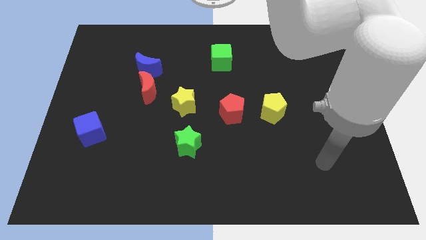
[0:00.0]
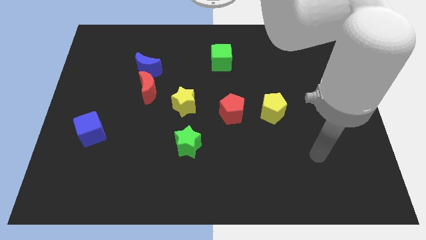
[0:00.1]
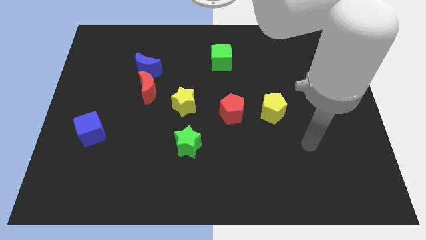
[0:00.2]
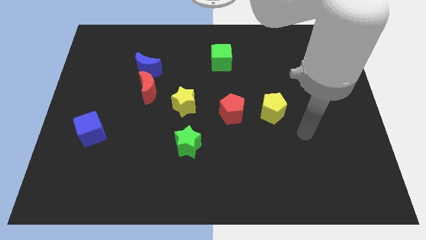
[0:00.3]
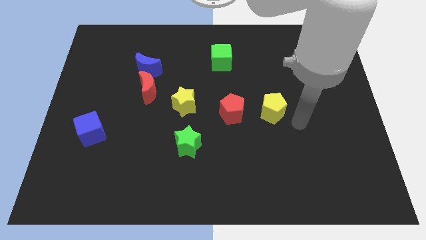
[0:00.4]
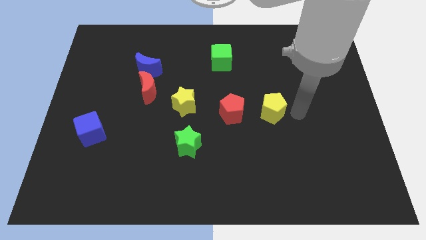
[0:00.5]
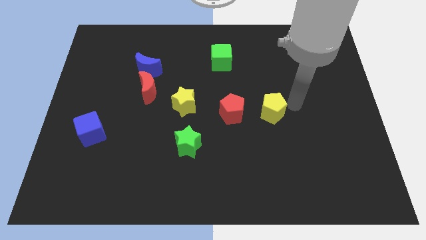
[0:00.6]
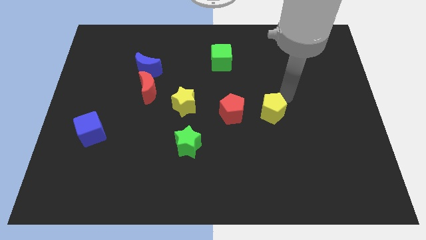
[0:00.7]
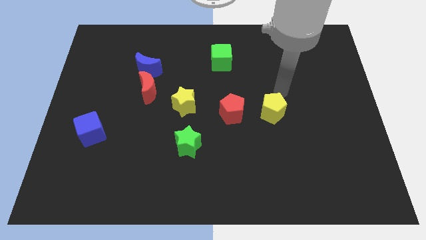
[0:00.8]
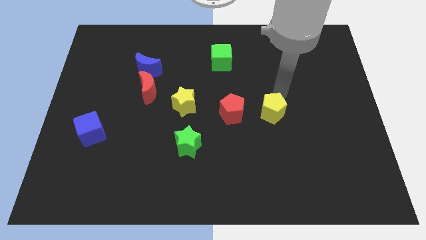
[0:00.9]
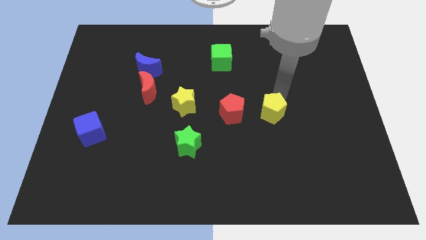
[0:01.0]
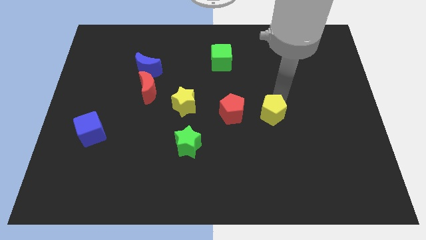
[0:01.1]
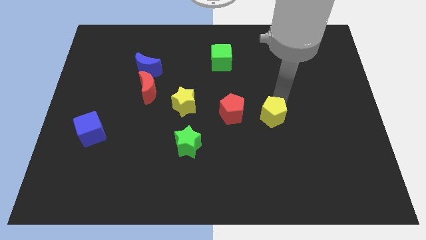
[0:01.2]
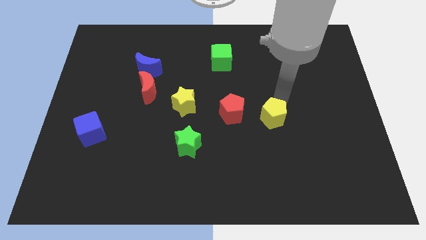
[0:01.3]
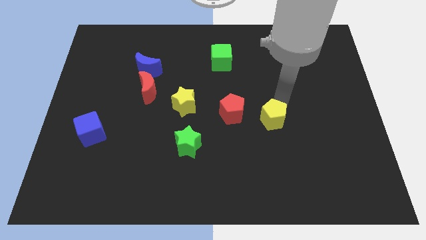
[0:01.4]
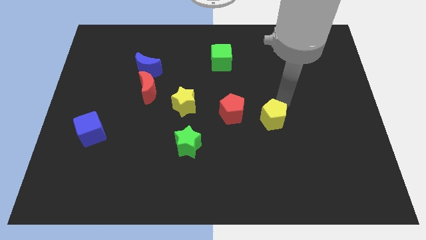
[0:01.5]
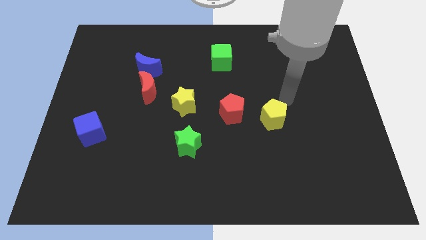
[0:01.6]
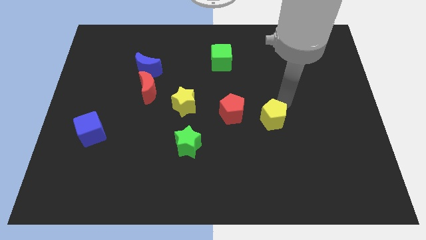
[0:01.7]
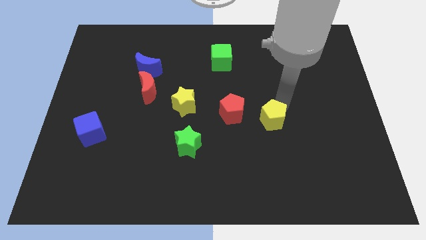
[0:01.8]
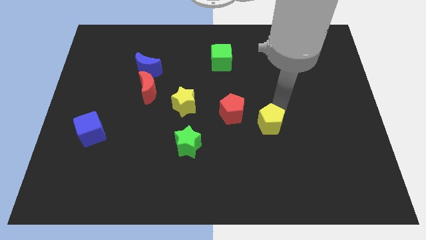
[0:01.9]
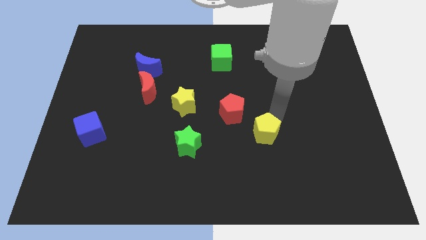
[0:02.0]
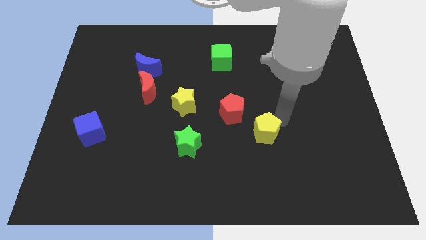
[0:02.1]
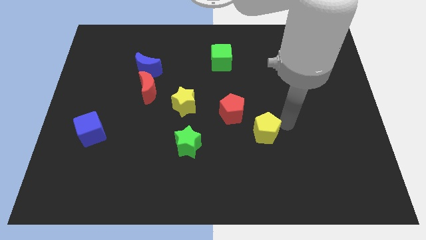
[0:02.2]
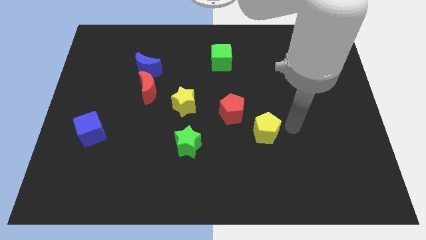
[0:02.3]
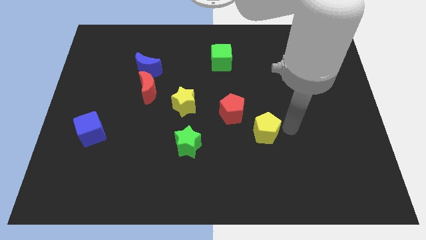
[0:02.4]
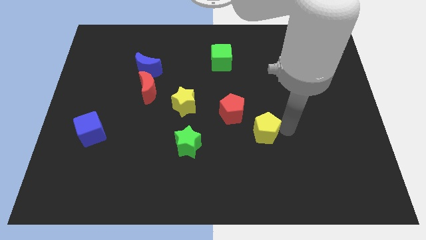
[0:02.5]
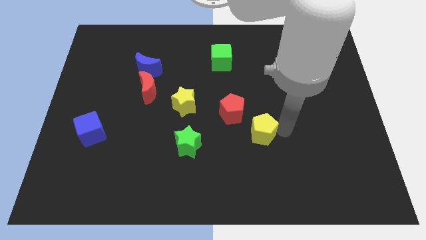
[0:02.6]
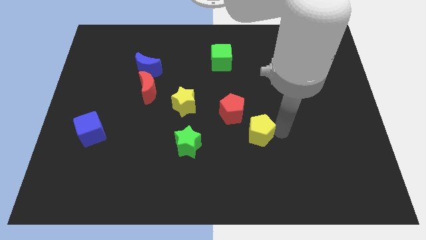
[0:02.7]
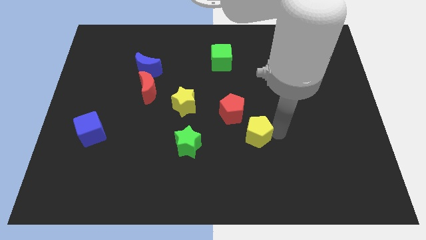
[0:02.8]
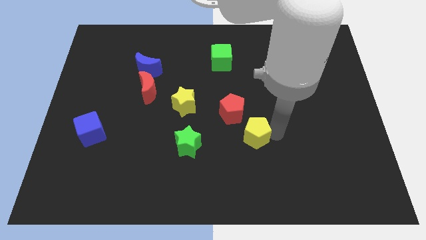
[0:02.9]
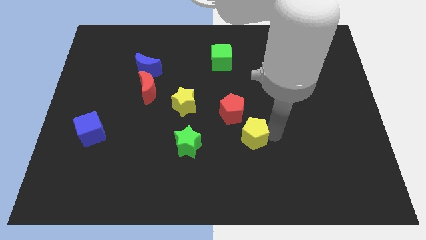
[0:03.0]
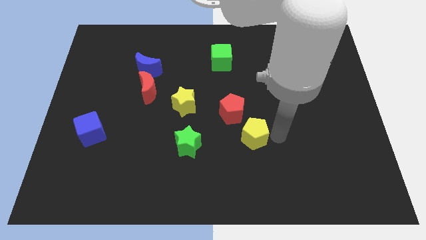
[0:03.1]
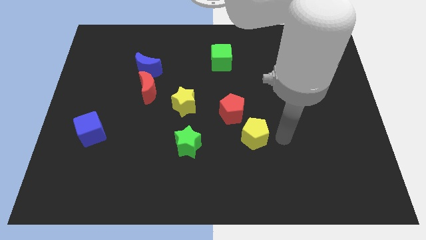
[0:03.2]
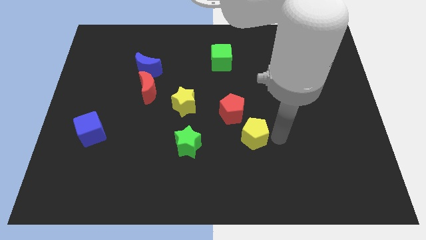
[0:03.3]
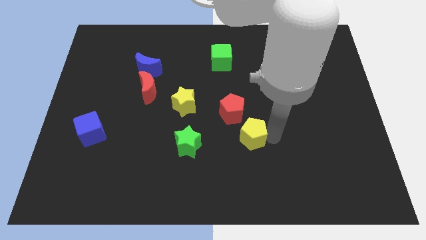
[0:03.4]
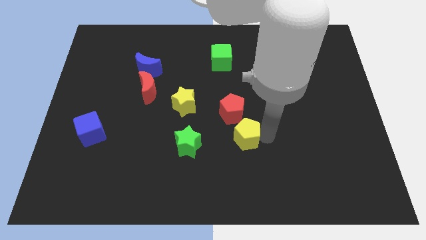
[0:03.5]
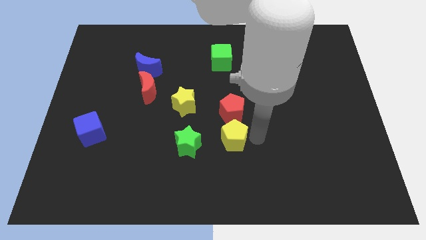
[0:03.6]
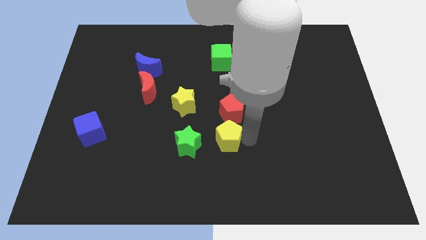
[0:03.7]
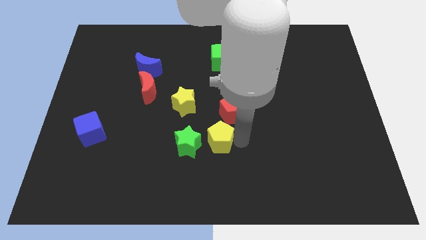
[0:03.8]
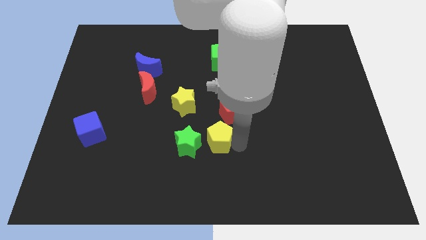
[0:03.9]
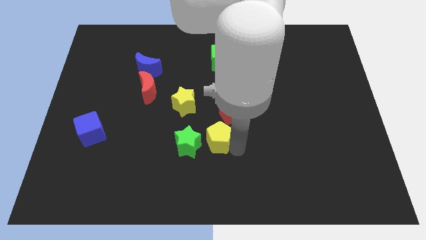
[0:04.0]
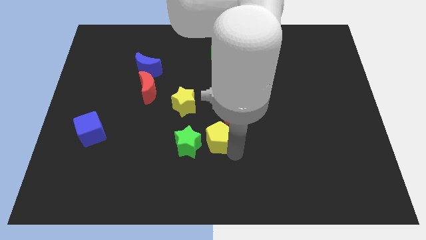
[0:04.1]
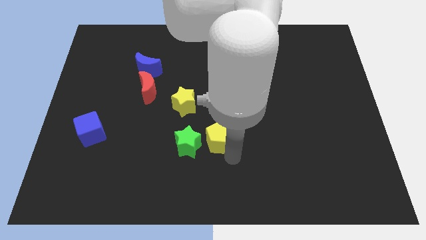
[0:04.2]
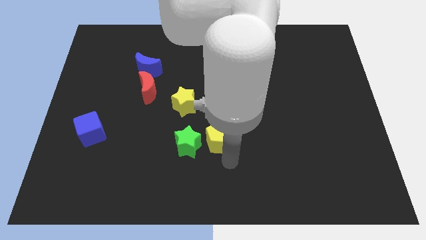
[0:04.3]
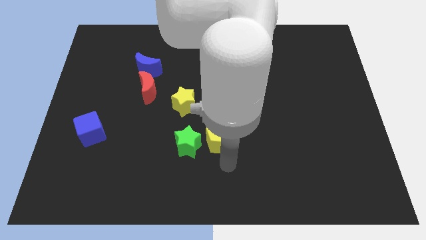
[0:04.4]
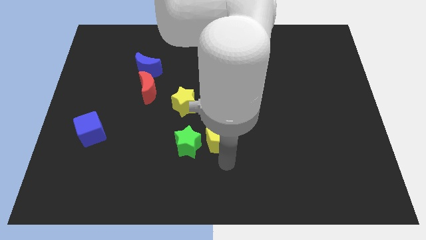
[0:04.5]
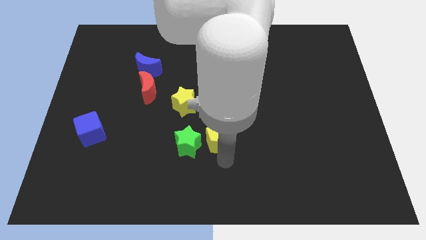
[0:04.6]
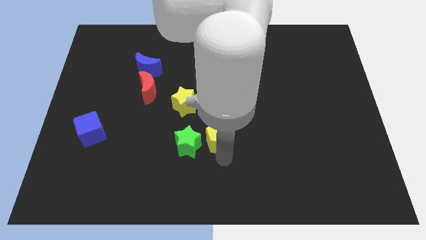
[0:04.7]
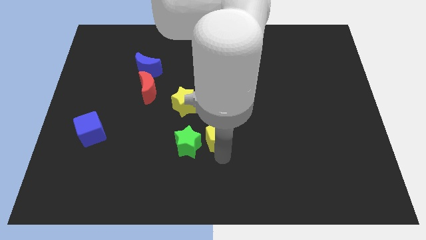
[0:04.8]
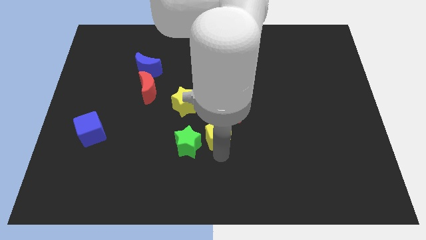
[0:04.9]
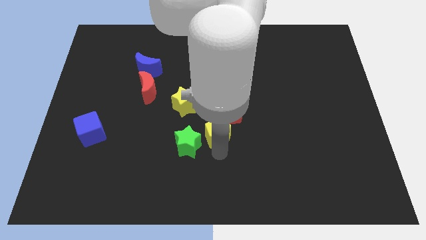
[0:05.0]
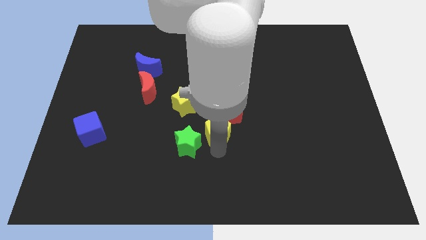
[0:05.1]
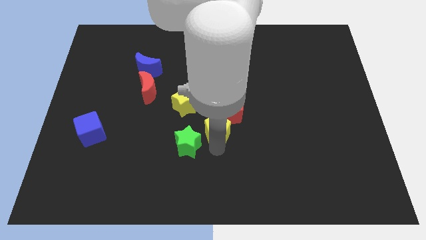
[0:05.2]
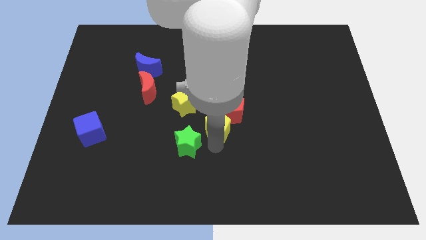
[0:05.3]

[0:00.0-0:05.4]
put the yellow pentagon to the left side of the red pentagon
